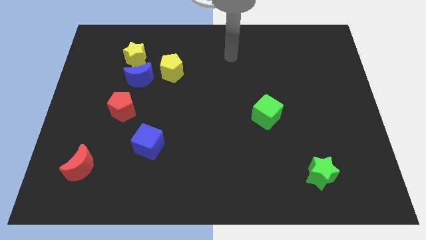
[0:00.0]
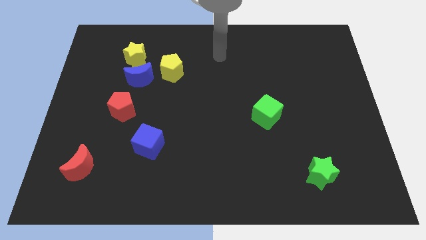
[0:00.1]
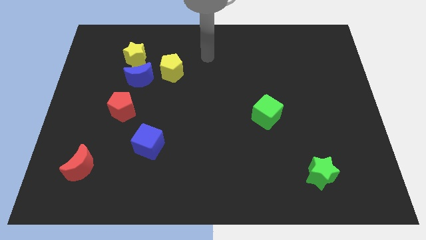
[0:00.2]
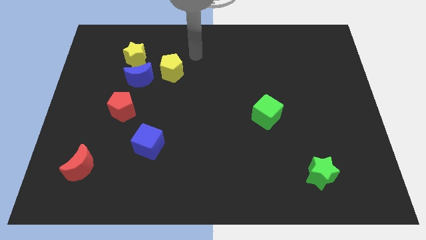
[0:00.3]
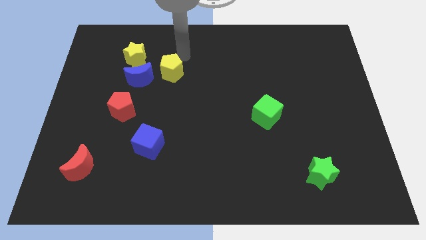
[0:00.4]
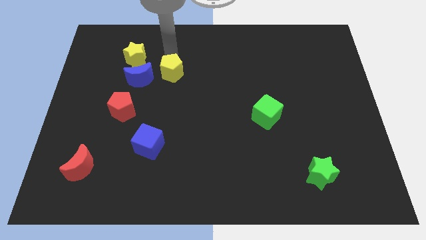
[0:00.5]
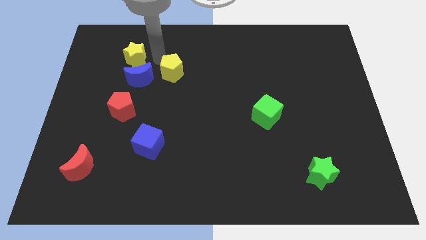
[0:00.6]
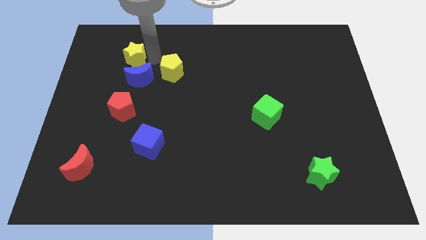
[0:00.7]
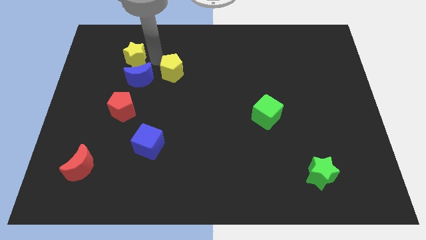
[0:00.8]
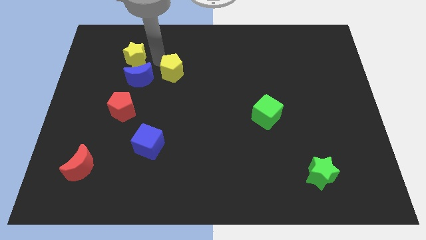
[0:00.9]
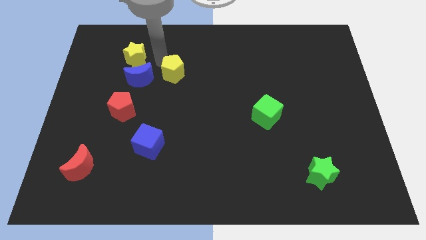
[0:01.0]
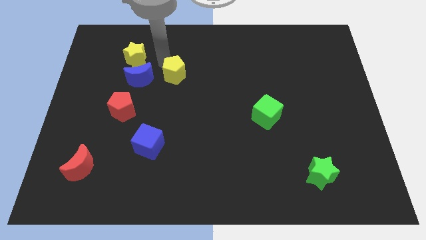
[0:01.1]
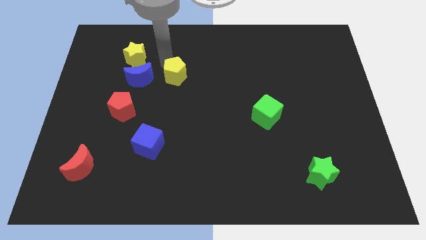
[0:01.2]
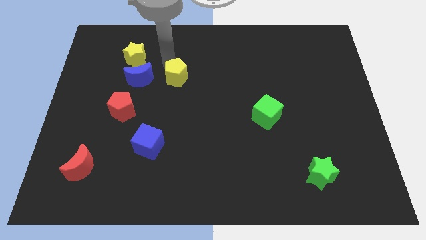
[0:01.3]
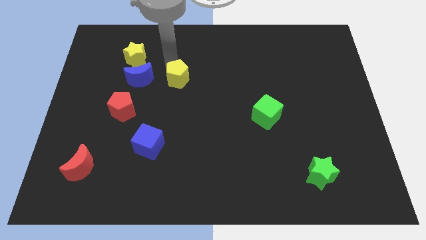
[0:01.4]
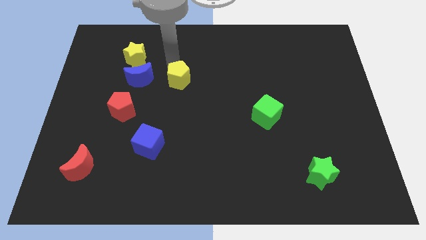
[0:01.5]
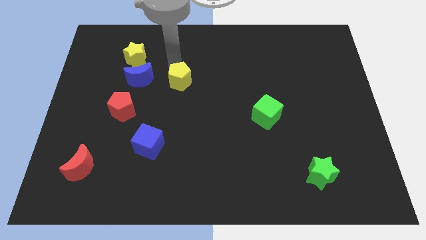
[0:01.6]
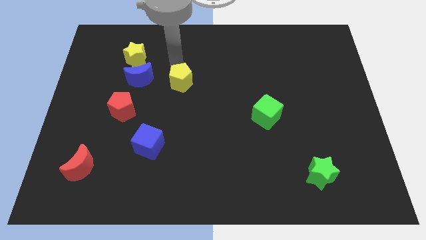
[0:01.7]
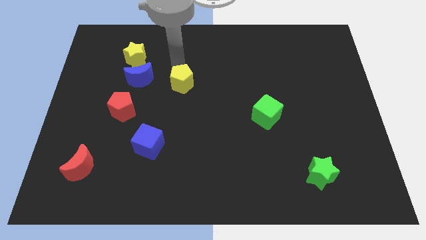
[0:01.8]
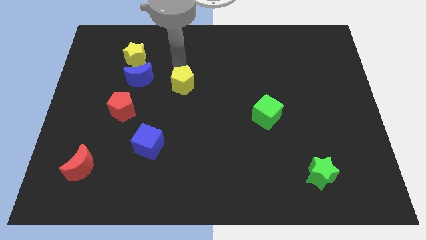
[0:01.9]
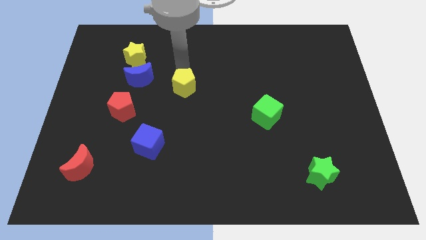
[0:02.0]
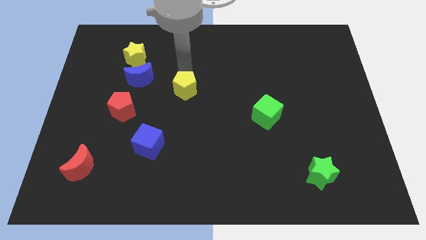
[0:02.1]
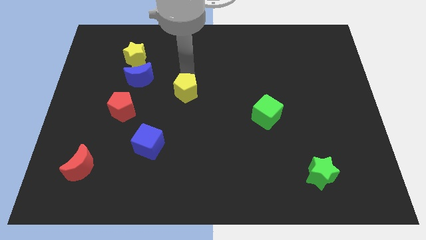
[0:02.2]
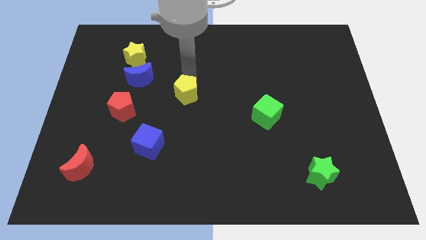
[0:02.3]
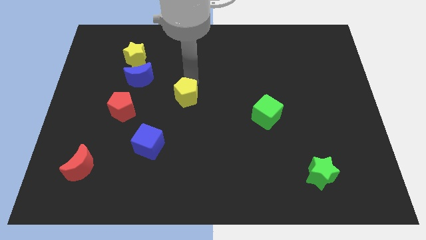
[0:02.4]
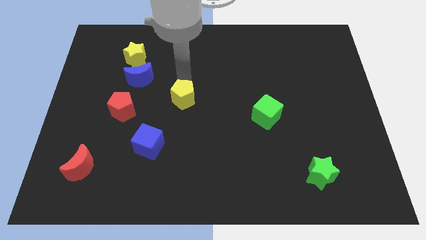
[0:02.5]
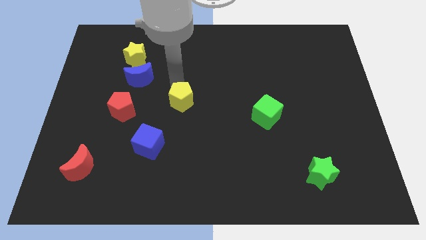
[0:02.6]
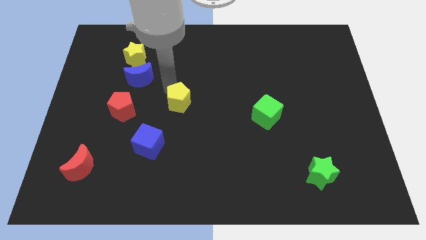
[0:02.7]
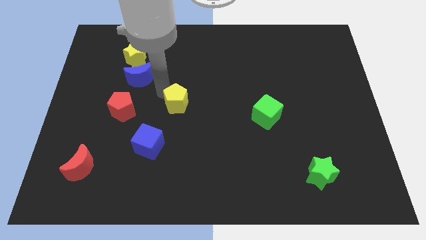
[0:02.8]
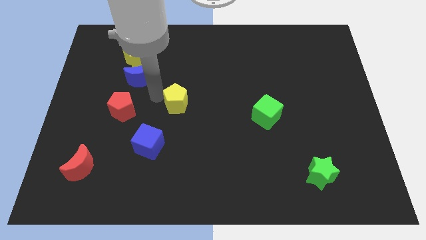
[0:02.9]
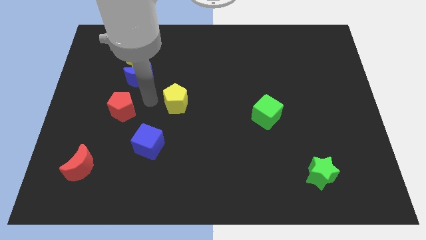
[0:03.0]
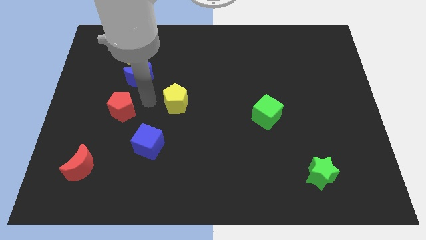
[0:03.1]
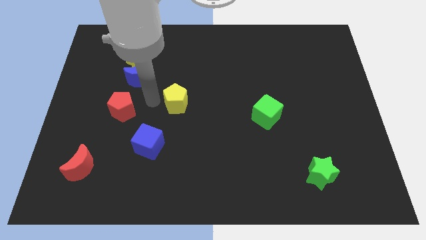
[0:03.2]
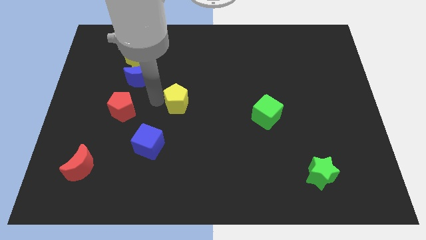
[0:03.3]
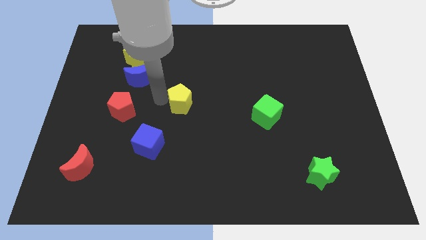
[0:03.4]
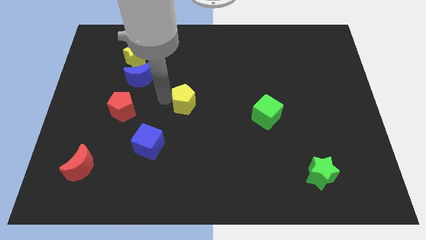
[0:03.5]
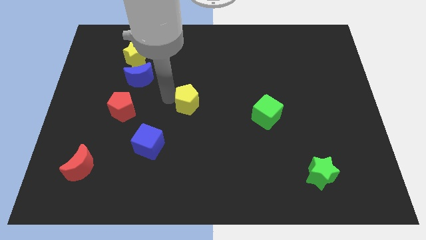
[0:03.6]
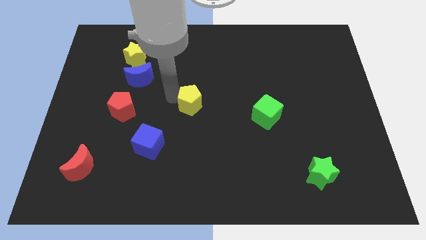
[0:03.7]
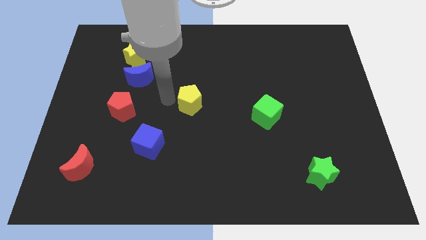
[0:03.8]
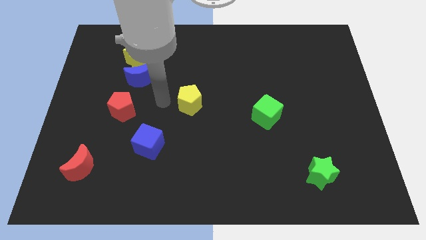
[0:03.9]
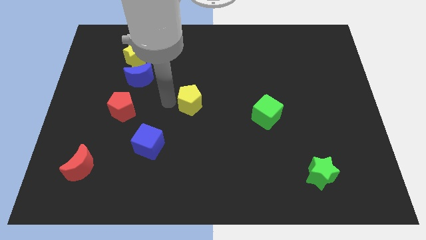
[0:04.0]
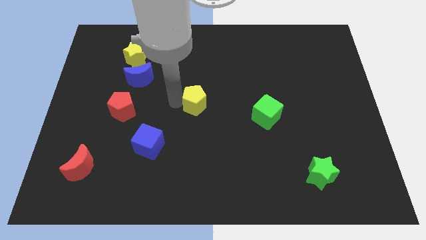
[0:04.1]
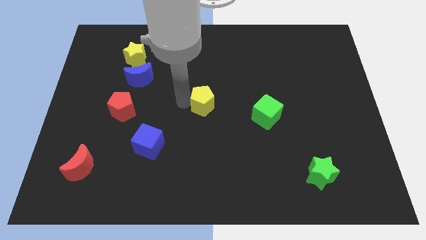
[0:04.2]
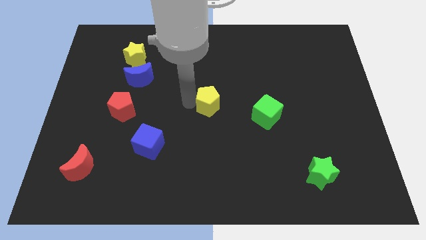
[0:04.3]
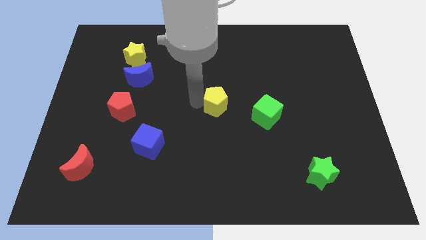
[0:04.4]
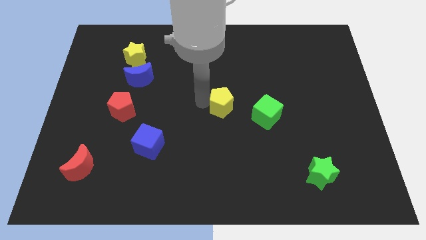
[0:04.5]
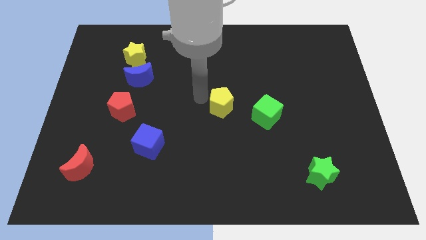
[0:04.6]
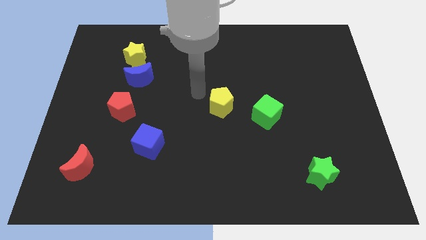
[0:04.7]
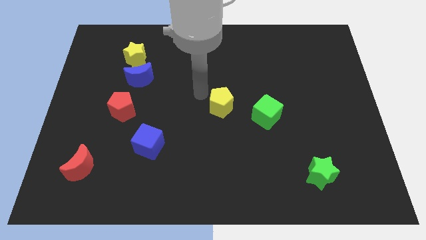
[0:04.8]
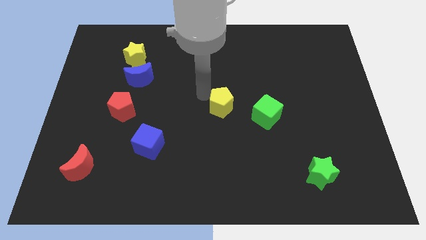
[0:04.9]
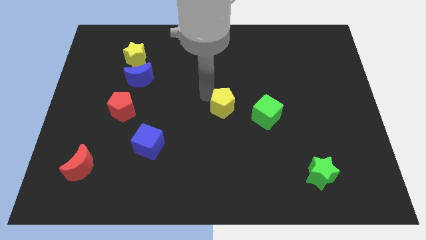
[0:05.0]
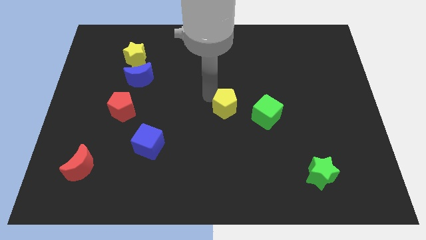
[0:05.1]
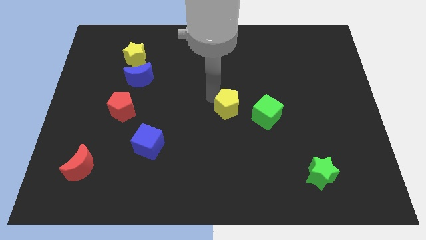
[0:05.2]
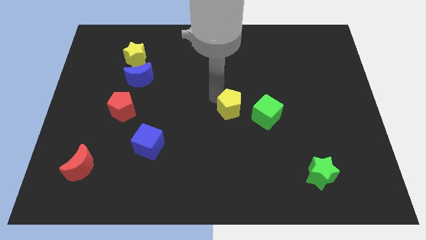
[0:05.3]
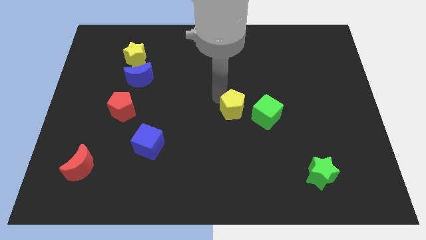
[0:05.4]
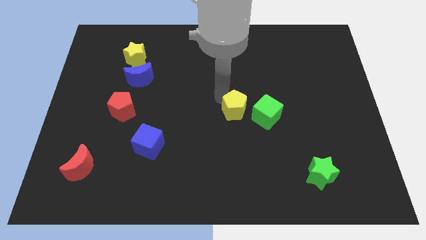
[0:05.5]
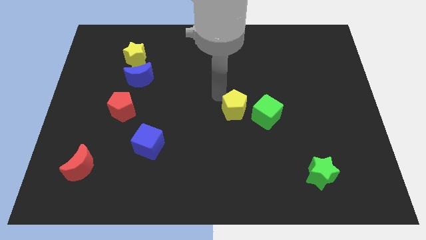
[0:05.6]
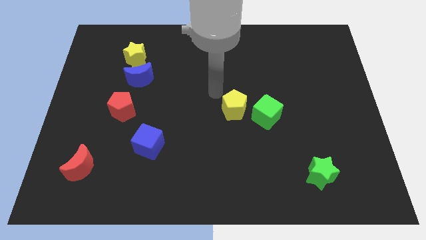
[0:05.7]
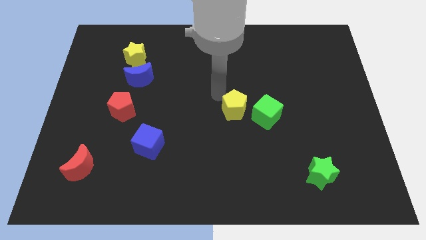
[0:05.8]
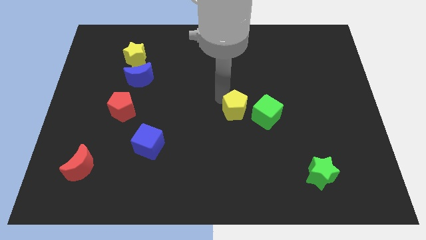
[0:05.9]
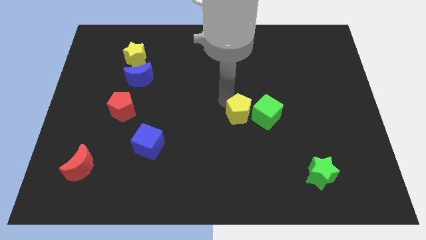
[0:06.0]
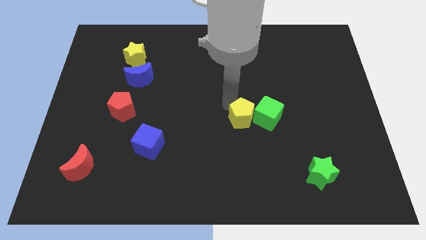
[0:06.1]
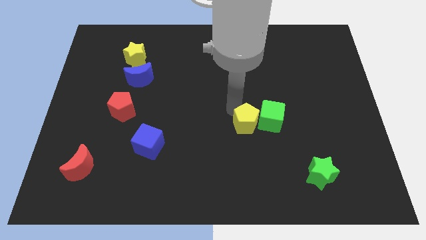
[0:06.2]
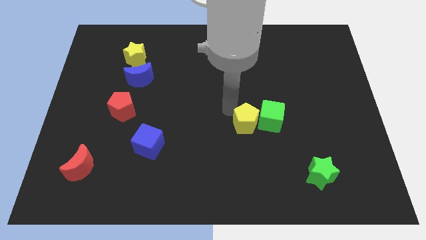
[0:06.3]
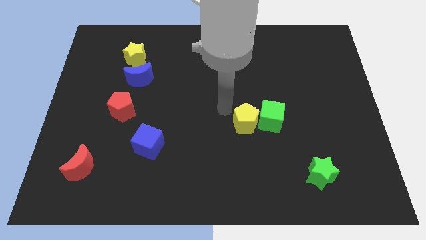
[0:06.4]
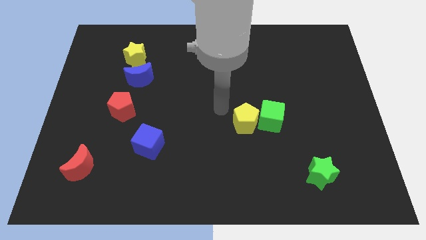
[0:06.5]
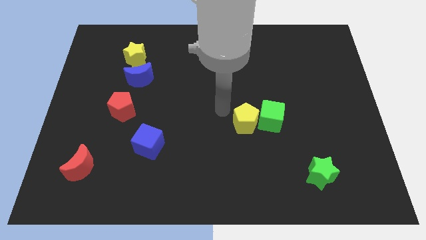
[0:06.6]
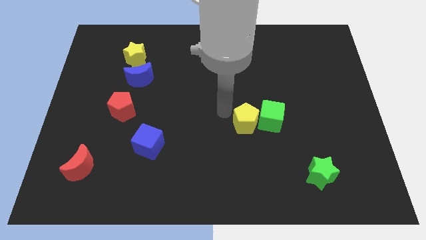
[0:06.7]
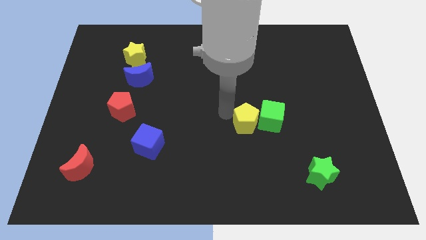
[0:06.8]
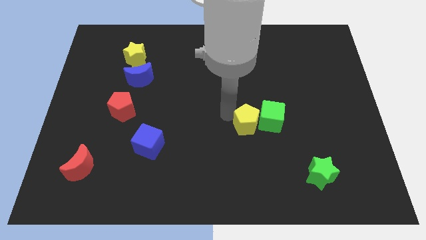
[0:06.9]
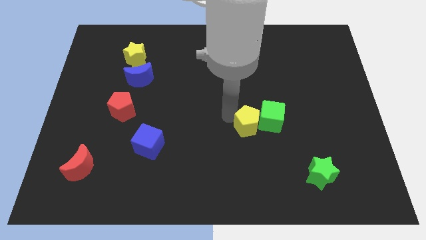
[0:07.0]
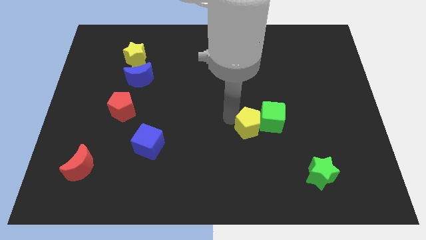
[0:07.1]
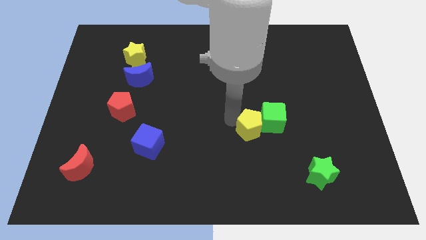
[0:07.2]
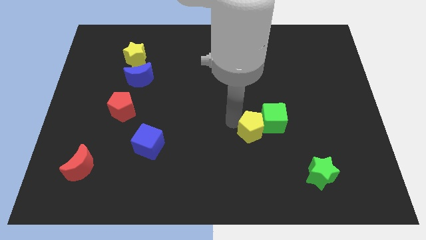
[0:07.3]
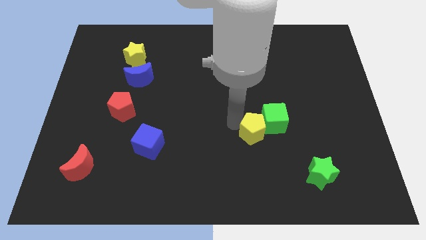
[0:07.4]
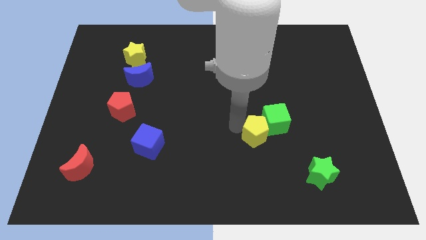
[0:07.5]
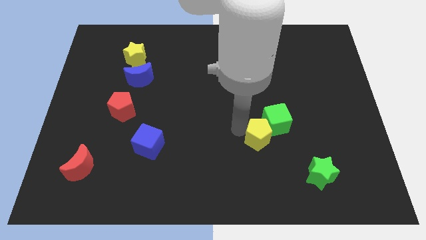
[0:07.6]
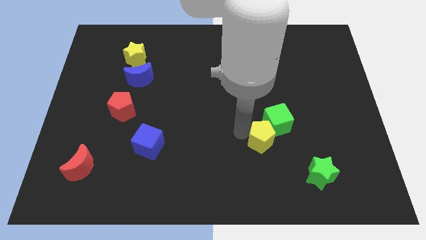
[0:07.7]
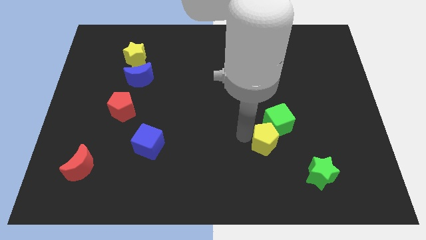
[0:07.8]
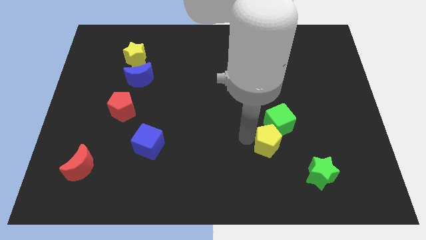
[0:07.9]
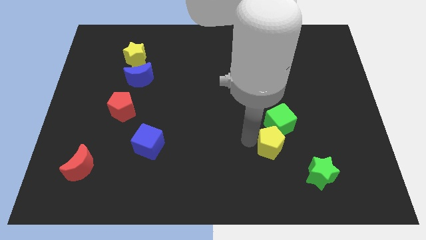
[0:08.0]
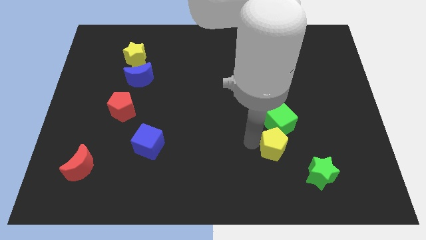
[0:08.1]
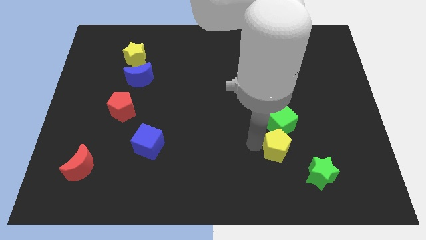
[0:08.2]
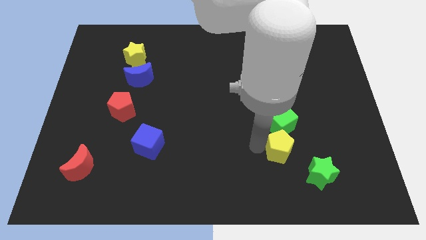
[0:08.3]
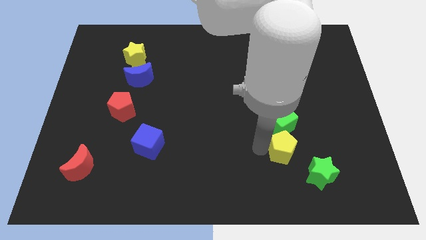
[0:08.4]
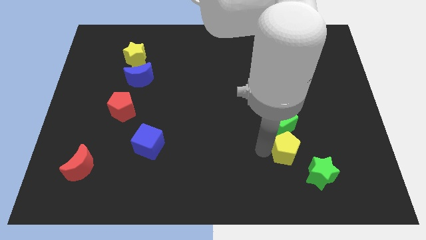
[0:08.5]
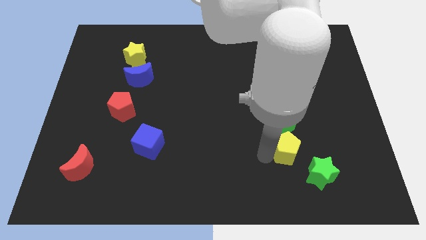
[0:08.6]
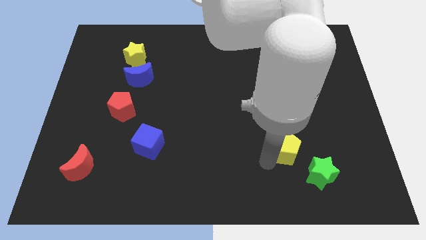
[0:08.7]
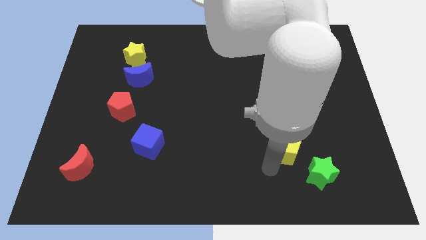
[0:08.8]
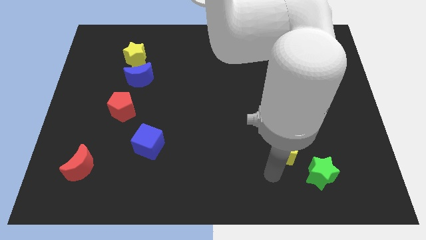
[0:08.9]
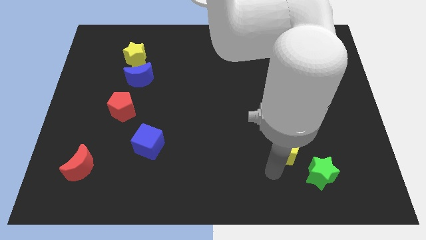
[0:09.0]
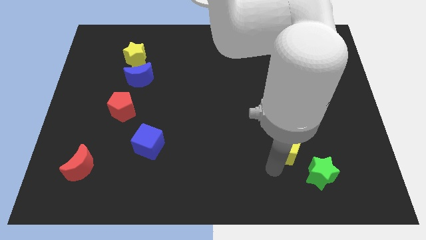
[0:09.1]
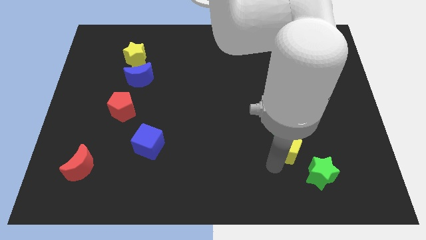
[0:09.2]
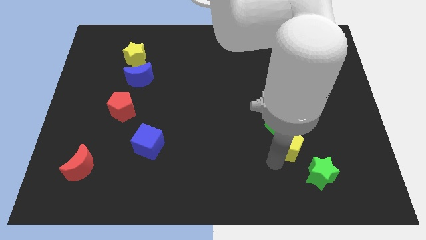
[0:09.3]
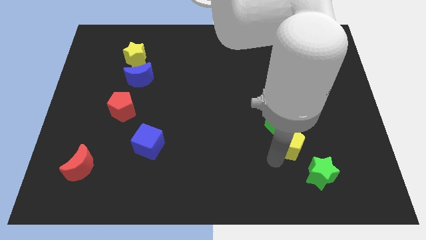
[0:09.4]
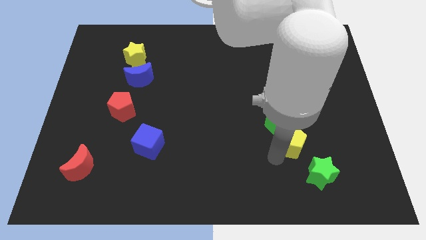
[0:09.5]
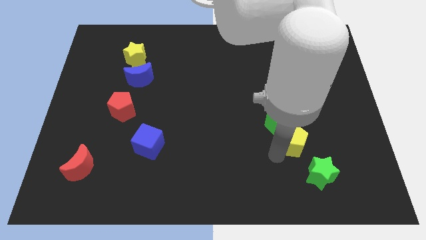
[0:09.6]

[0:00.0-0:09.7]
slide the yellow pentagon to the top of the green star
